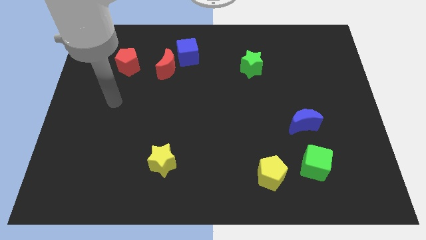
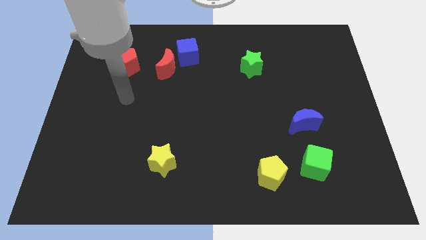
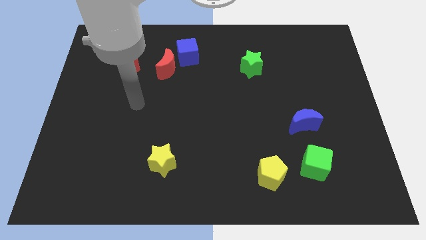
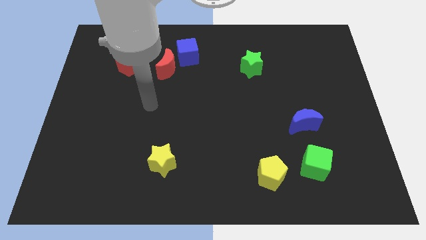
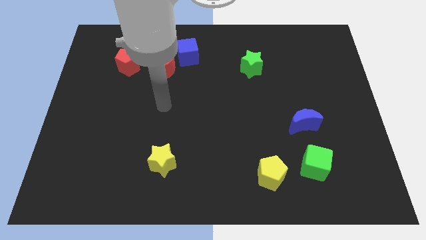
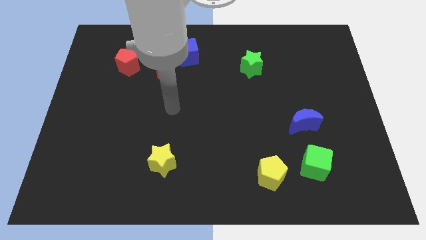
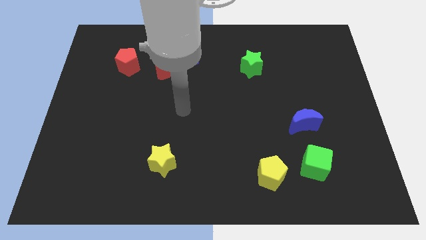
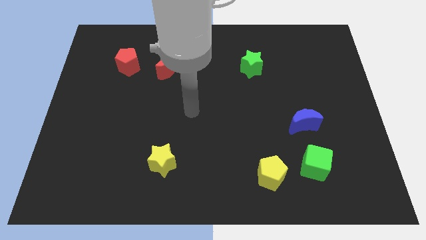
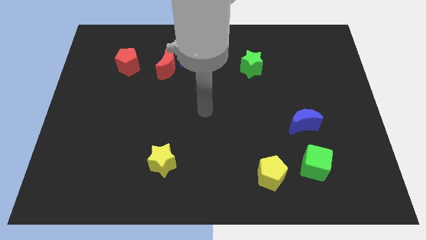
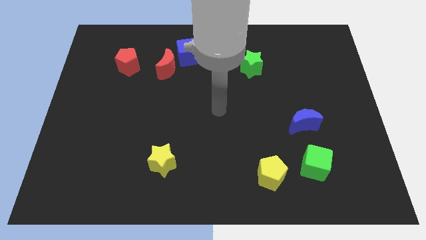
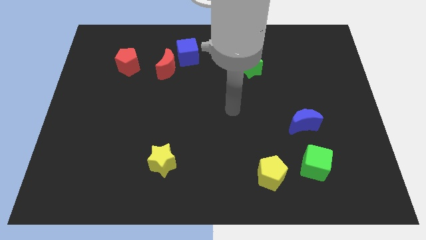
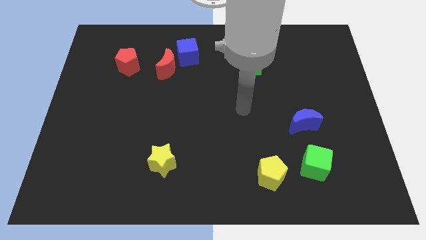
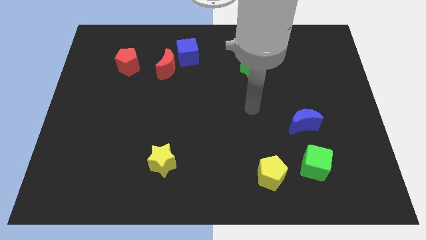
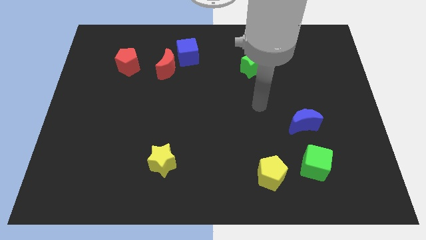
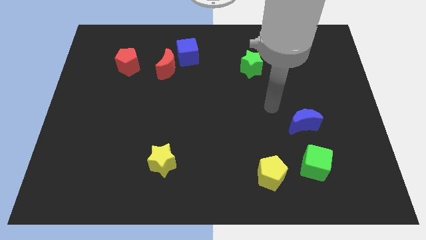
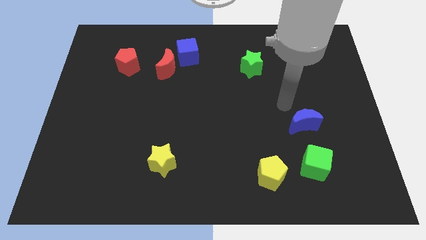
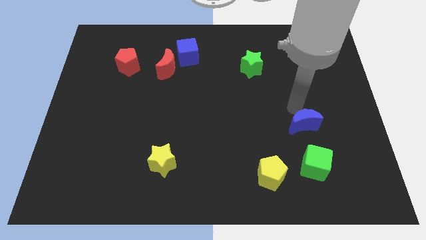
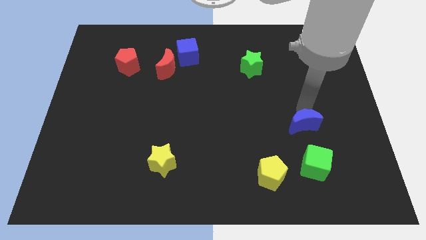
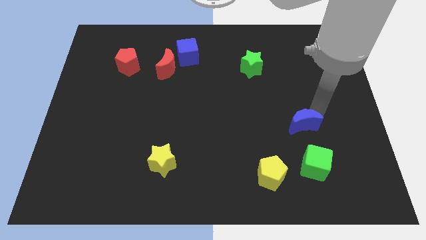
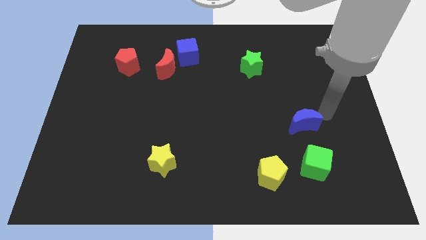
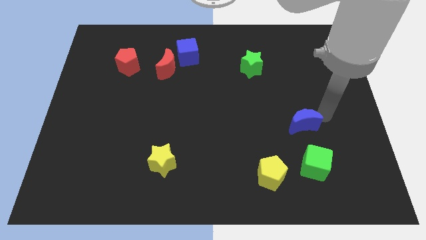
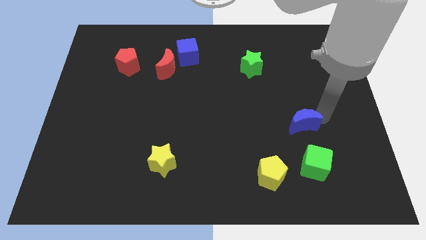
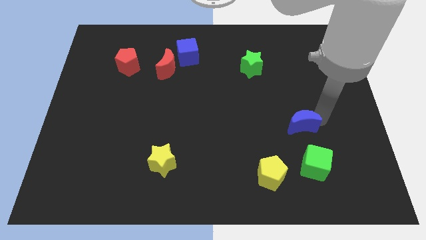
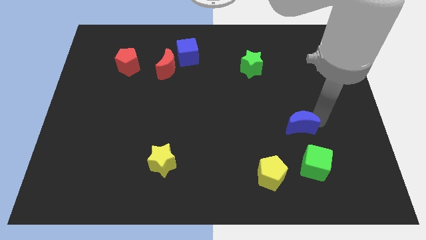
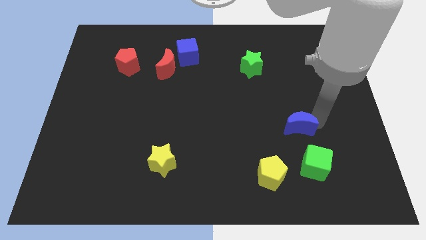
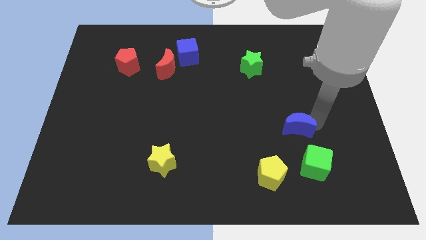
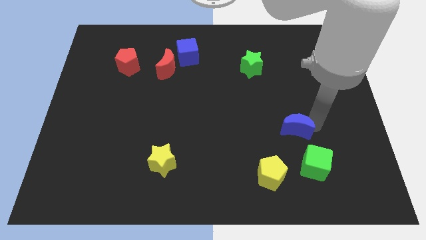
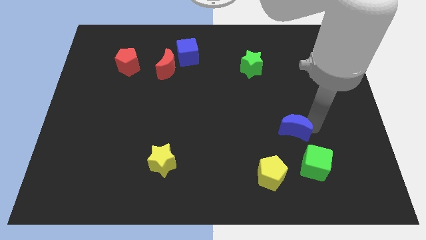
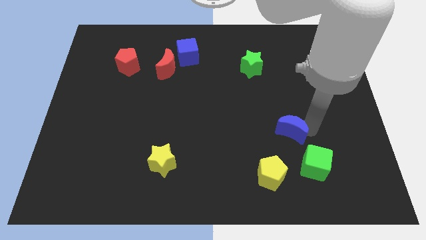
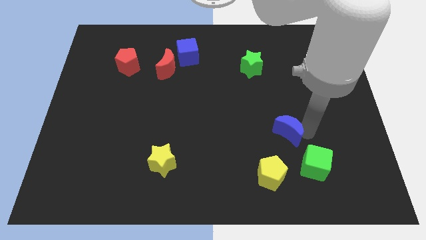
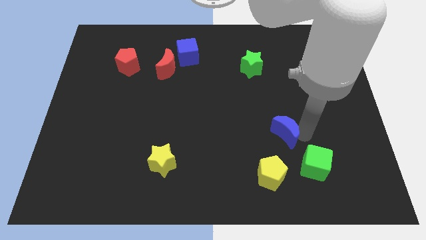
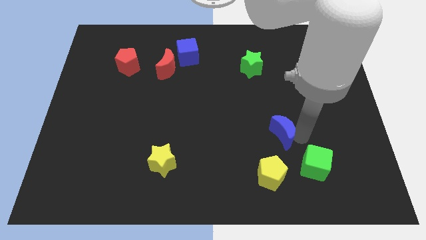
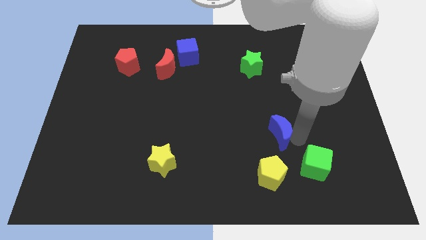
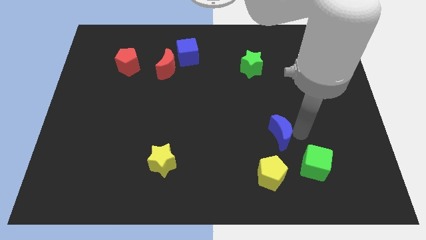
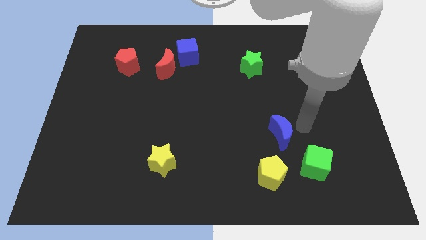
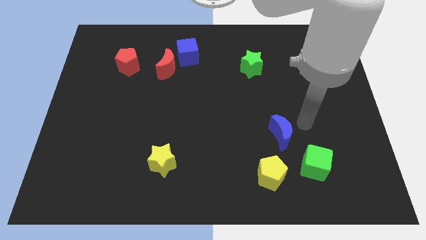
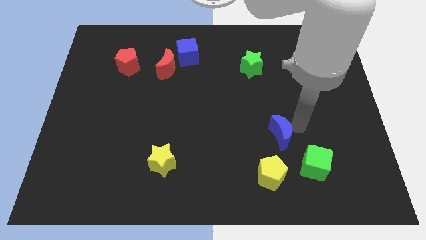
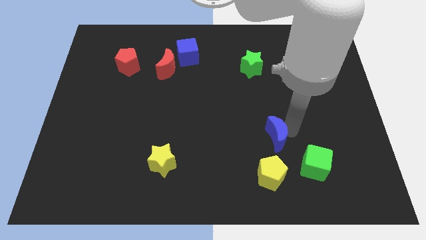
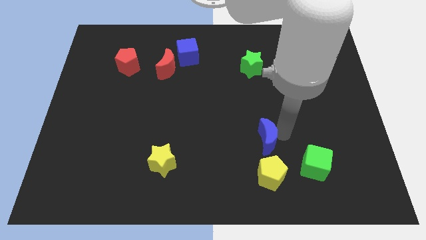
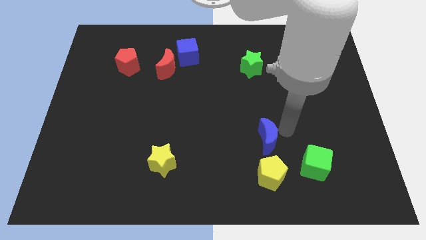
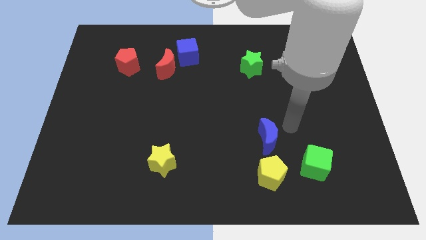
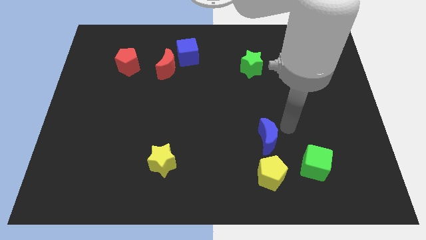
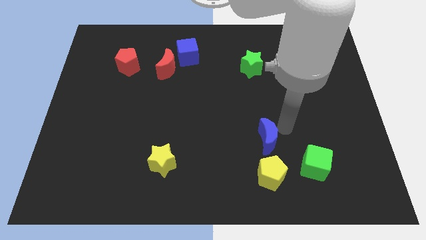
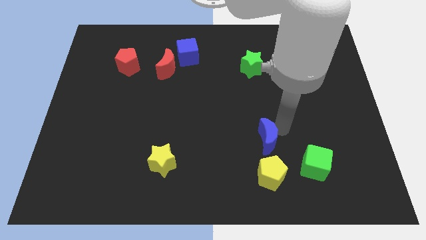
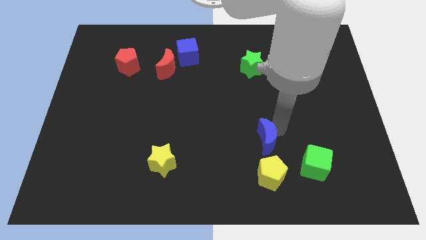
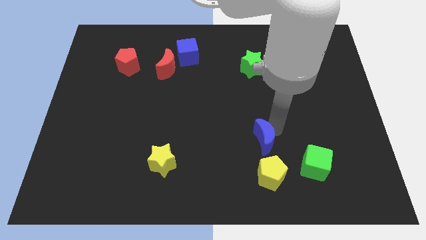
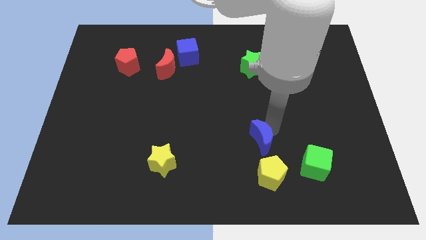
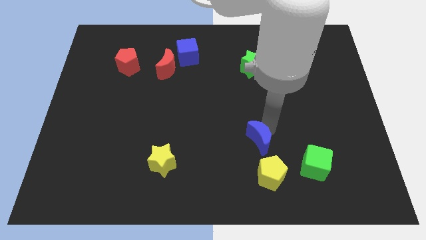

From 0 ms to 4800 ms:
slide the blue moon to the top left side of the yellow pentagon

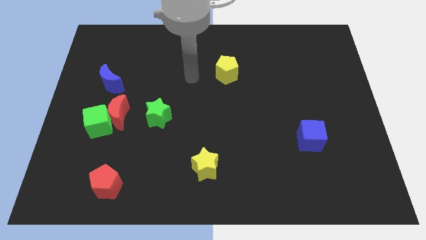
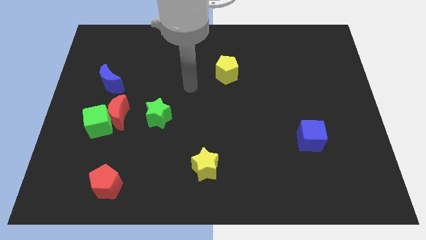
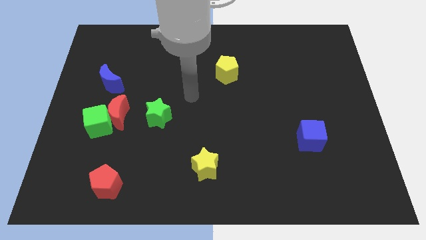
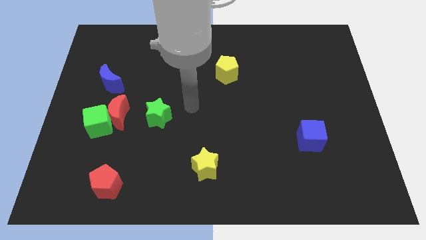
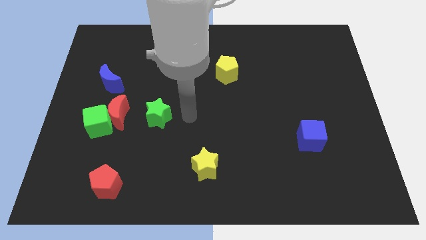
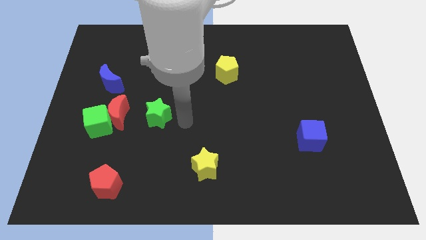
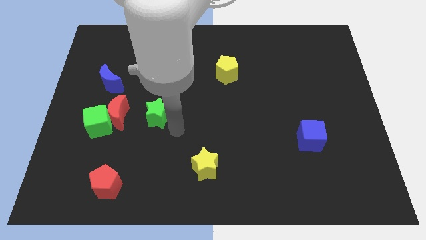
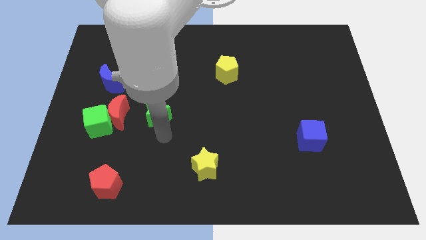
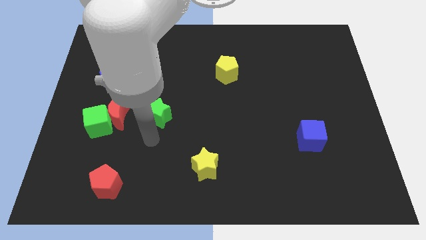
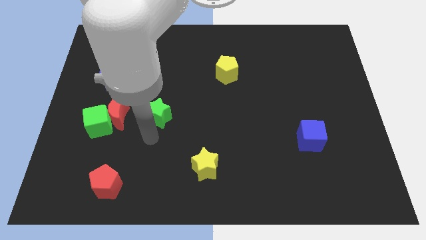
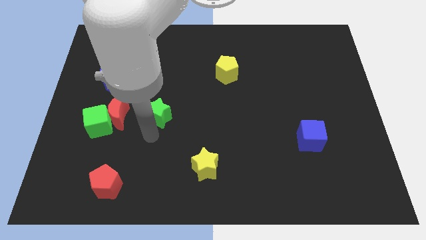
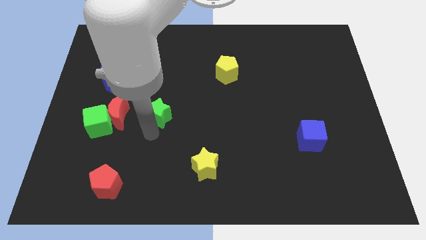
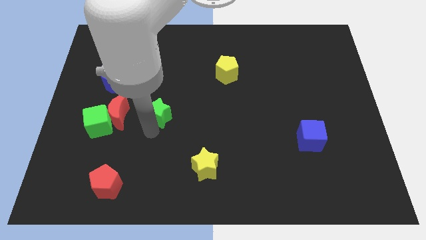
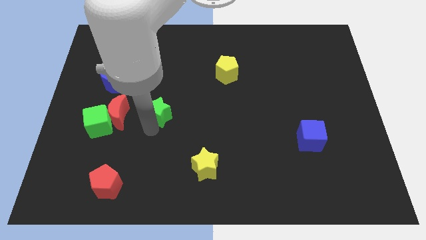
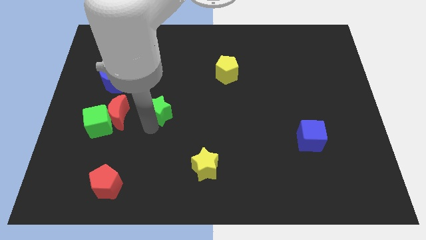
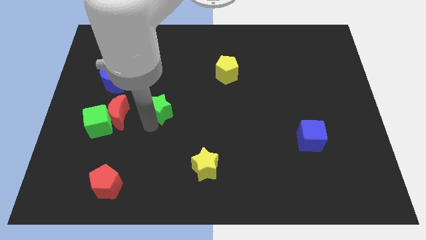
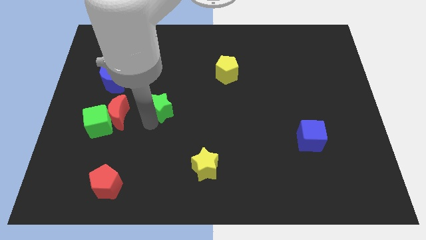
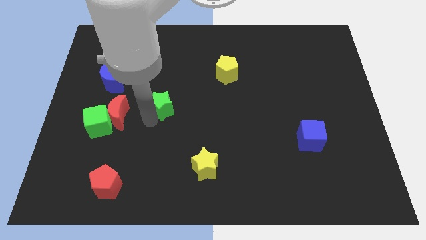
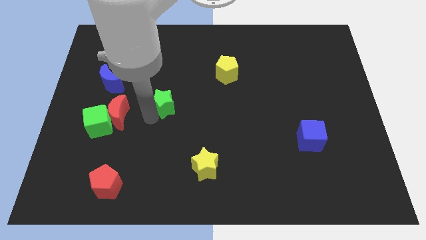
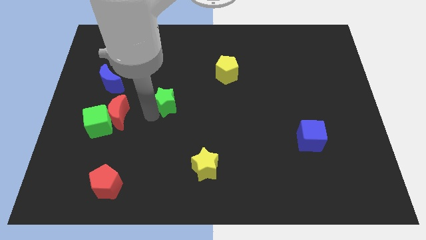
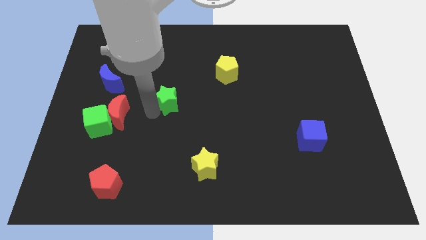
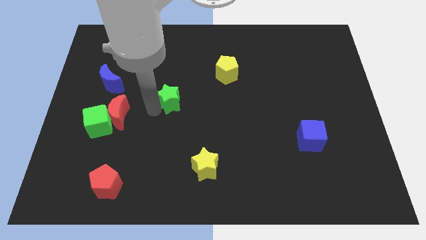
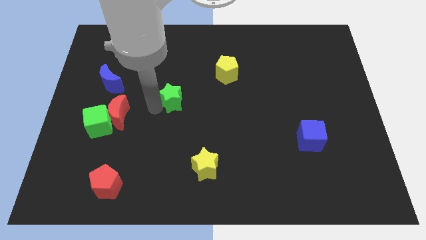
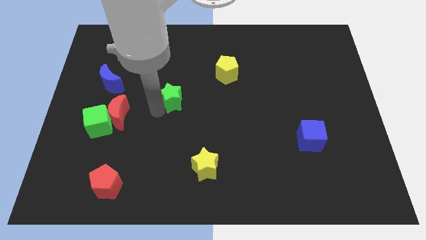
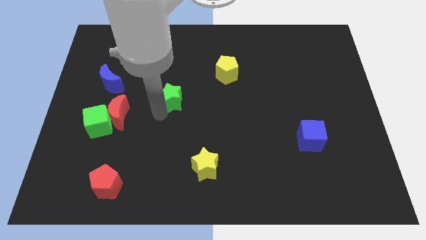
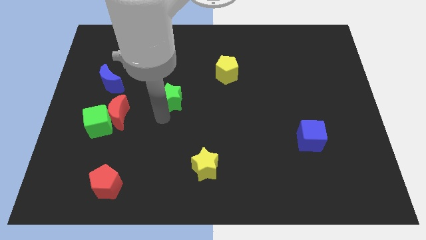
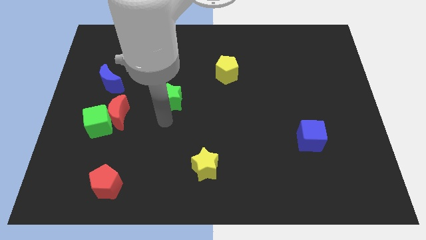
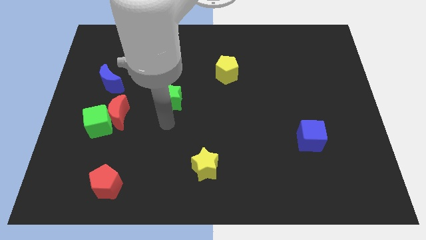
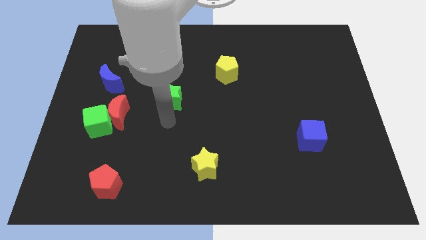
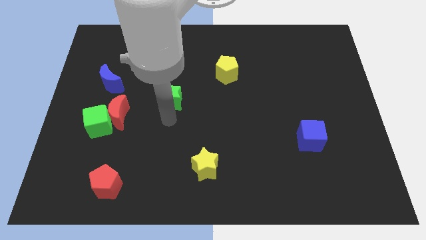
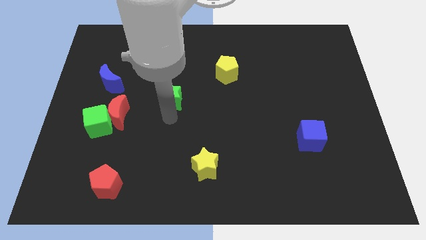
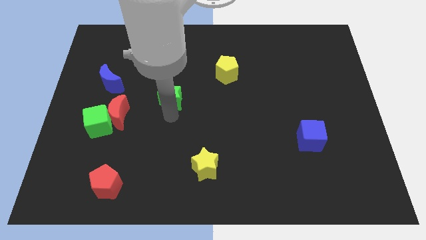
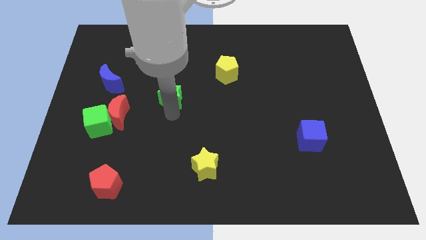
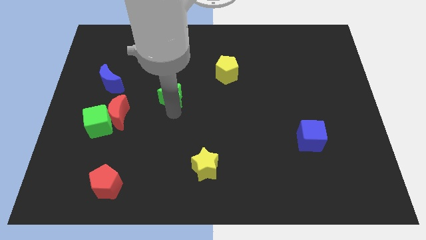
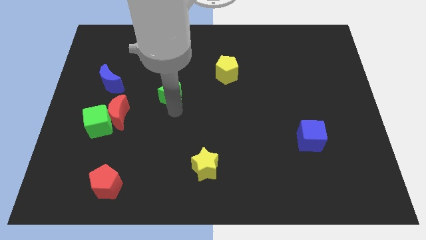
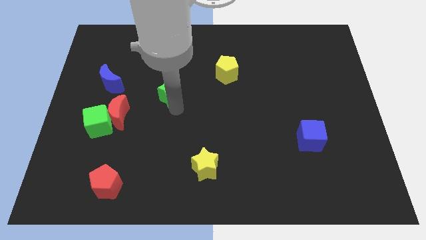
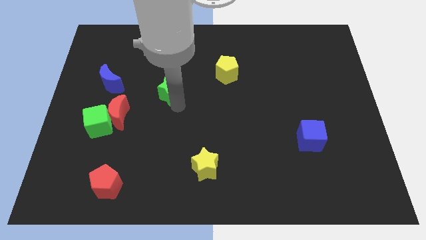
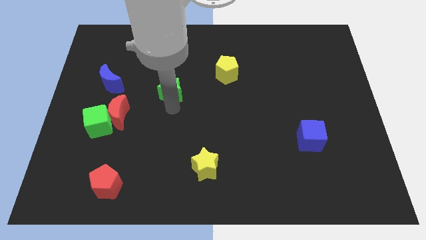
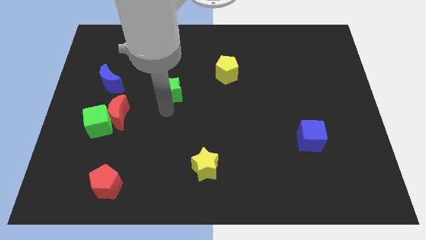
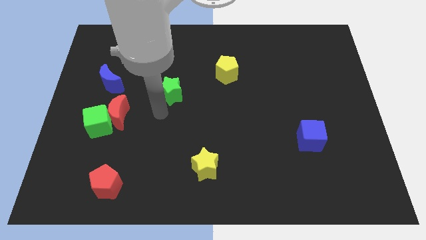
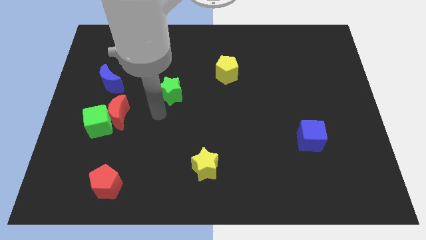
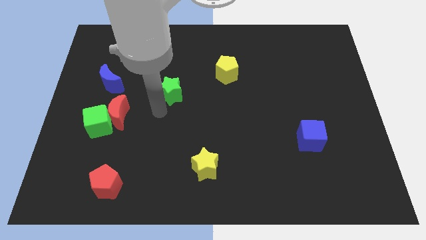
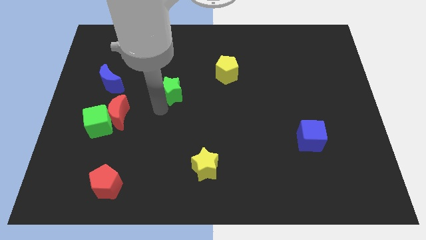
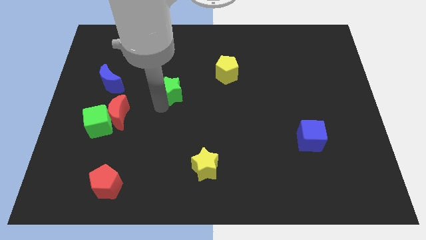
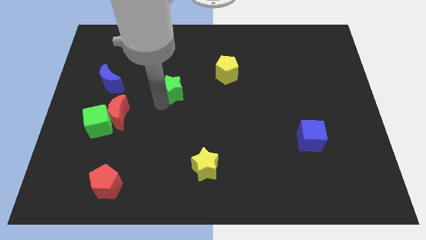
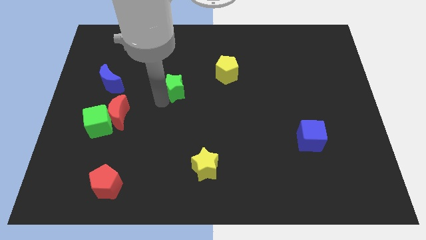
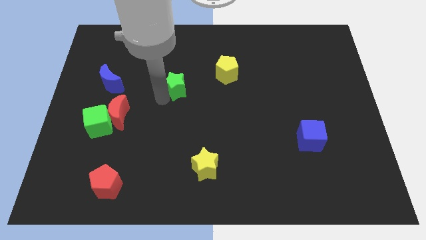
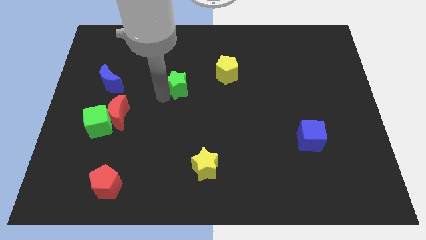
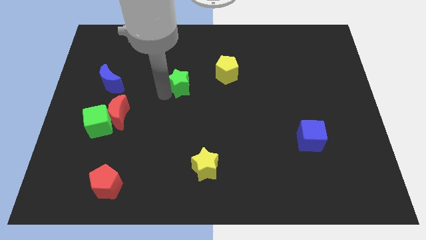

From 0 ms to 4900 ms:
slide the green star left of the yellow pentagon
